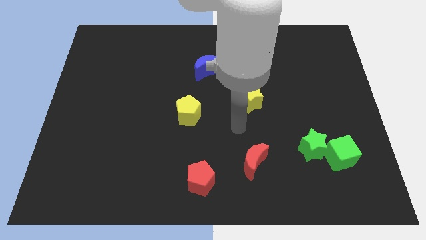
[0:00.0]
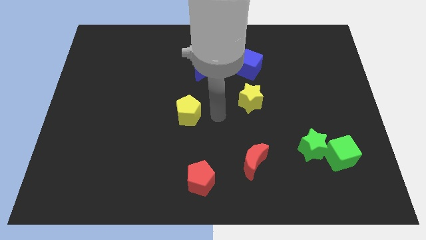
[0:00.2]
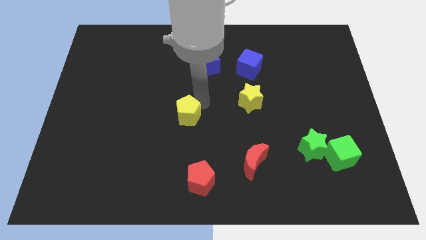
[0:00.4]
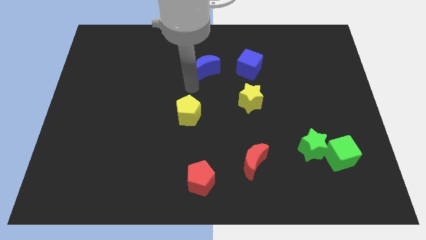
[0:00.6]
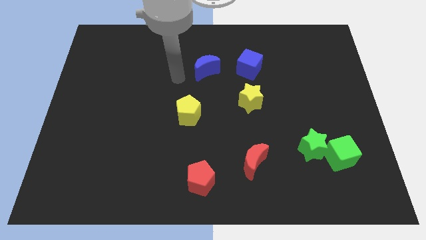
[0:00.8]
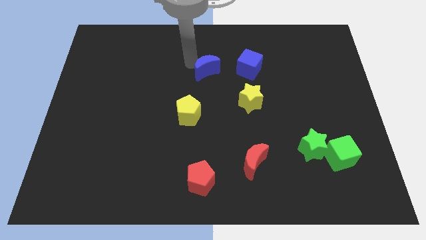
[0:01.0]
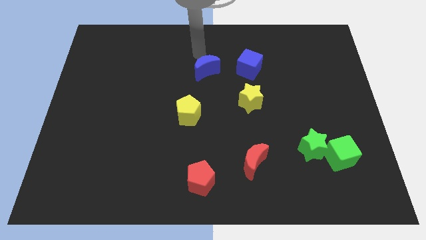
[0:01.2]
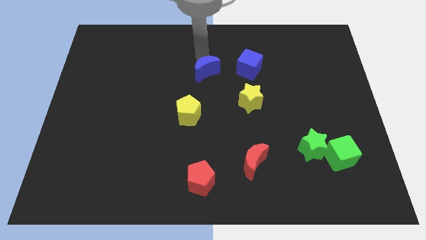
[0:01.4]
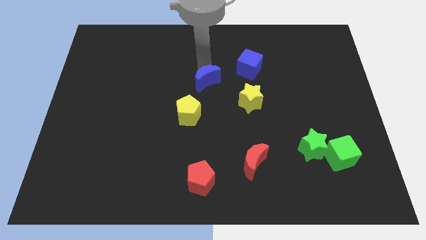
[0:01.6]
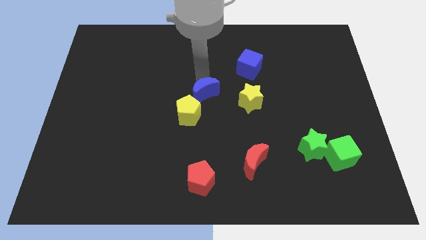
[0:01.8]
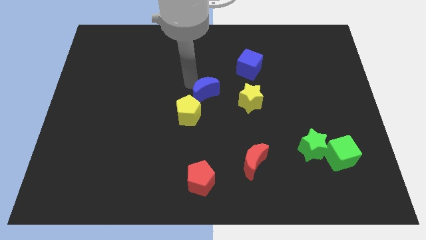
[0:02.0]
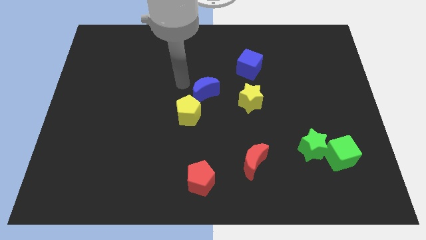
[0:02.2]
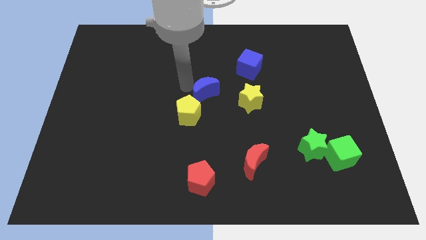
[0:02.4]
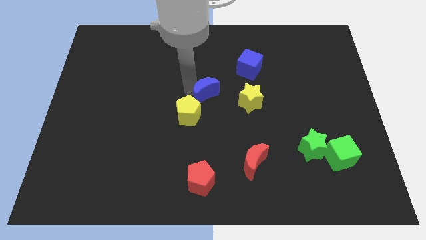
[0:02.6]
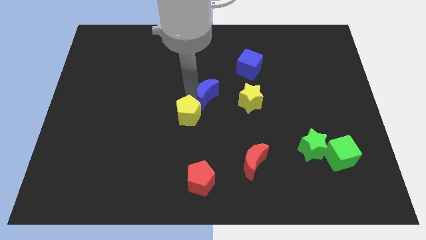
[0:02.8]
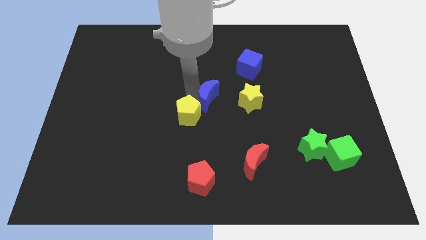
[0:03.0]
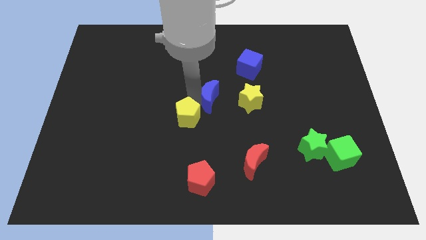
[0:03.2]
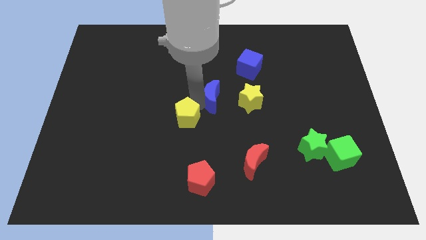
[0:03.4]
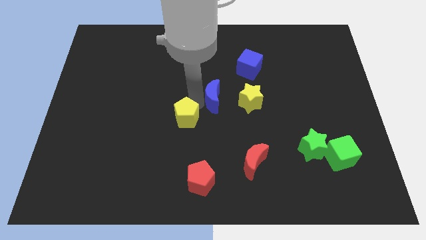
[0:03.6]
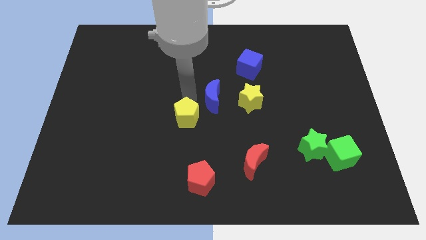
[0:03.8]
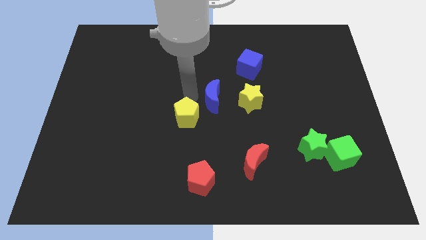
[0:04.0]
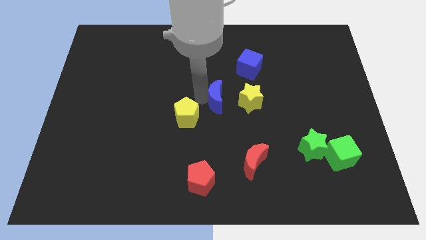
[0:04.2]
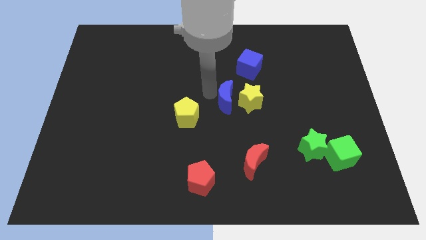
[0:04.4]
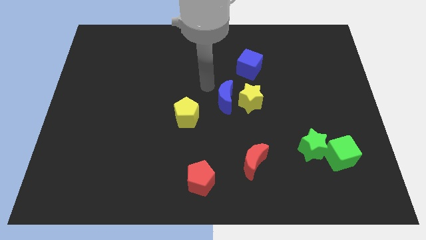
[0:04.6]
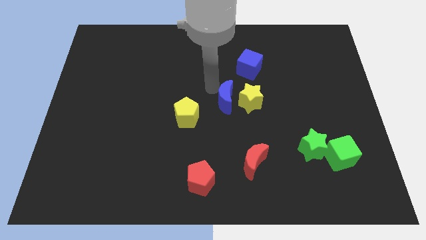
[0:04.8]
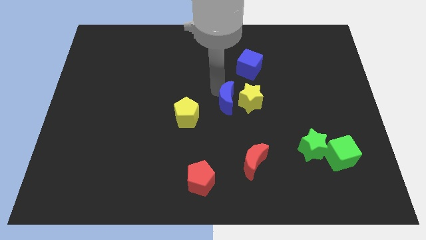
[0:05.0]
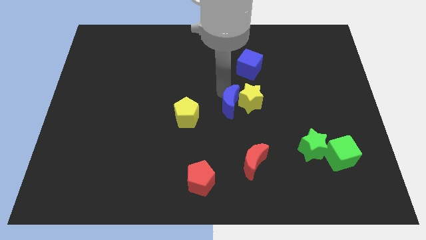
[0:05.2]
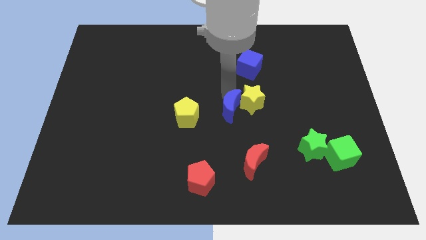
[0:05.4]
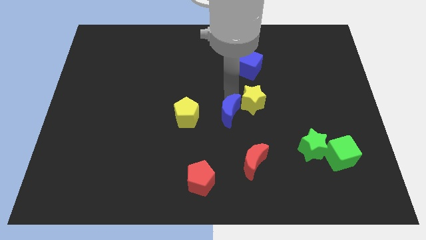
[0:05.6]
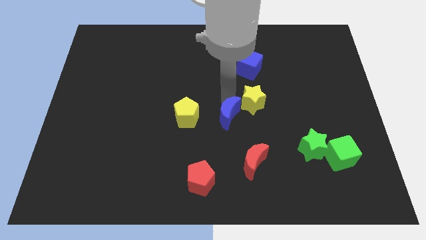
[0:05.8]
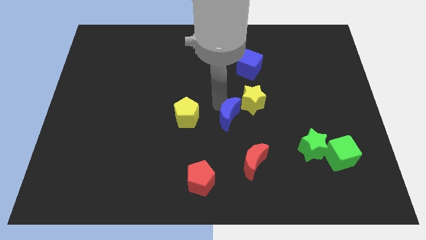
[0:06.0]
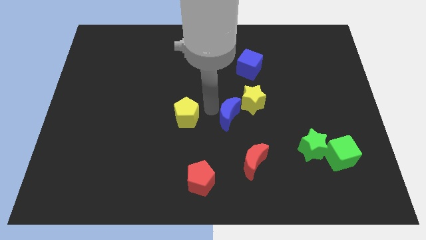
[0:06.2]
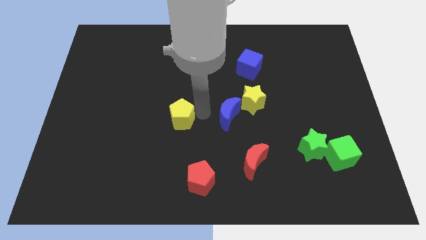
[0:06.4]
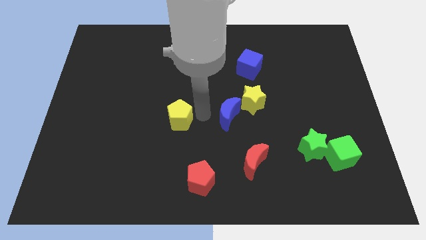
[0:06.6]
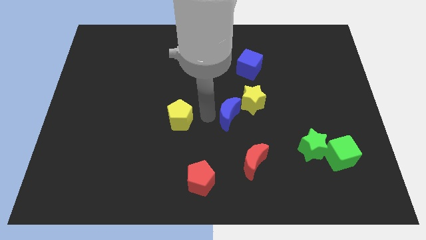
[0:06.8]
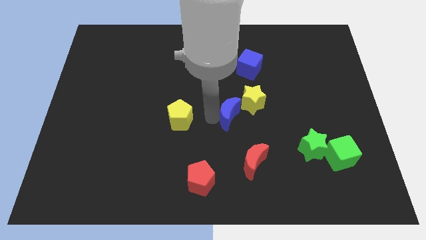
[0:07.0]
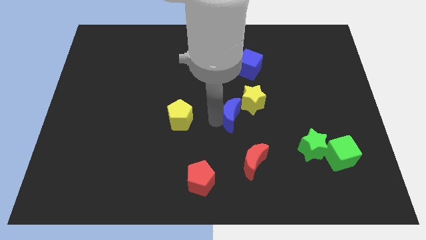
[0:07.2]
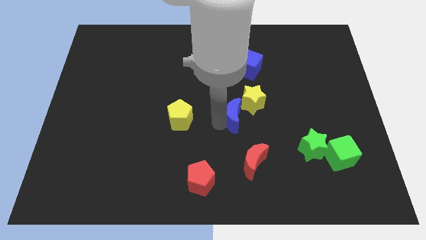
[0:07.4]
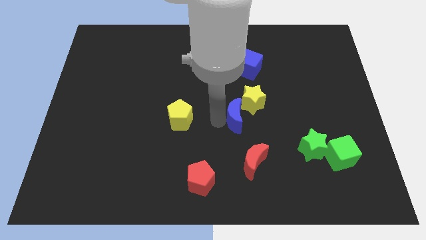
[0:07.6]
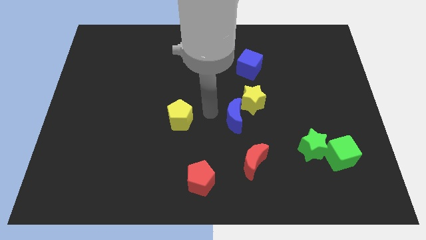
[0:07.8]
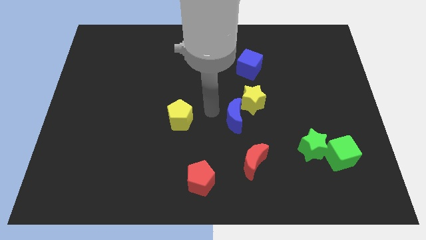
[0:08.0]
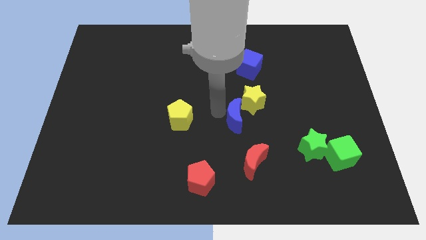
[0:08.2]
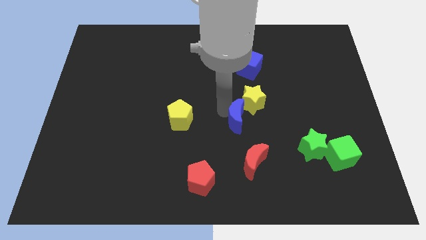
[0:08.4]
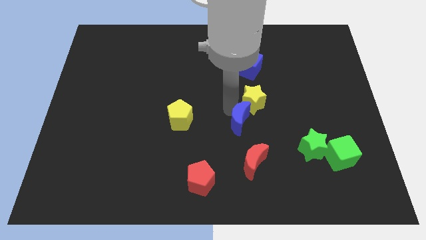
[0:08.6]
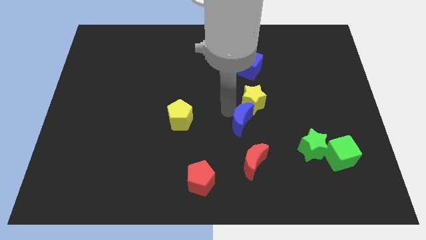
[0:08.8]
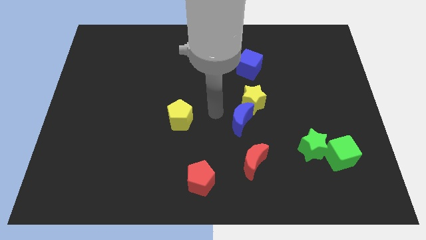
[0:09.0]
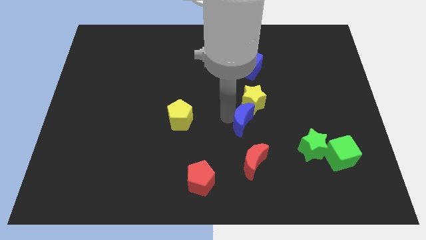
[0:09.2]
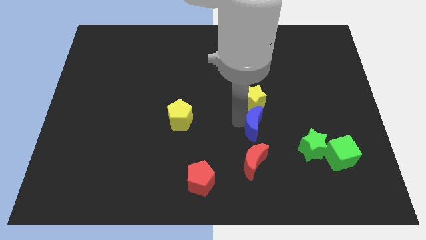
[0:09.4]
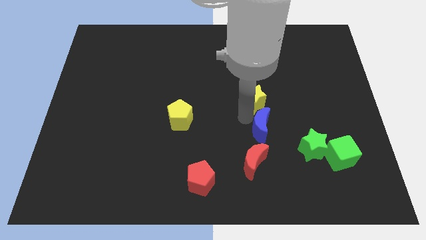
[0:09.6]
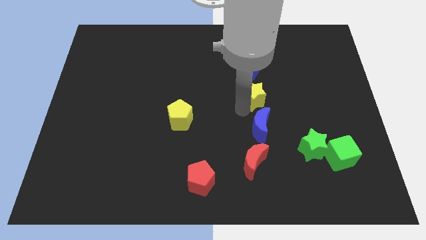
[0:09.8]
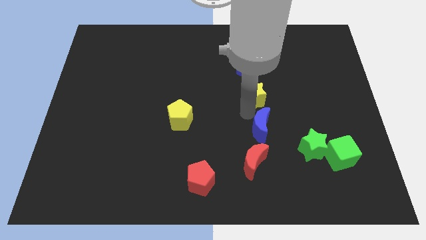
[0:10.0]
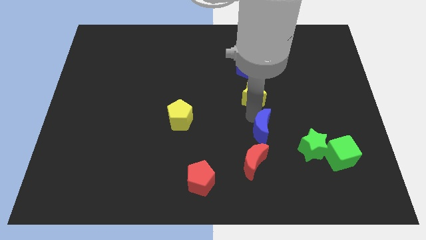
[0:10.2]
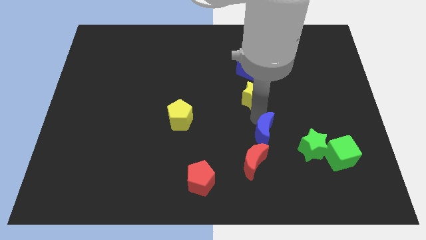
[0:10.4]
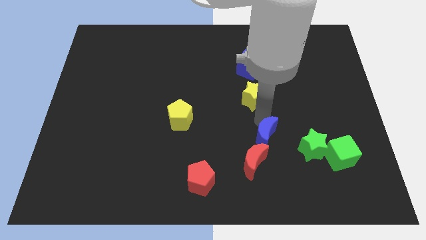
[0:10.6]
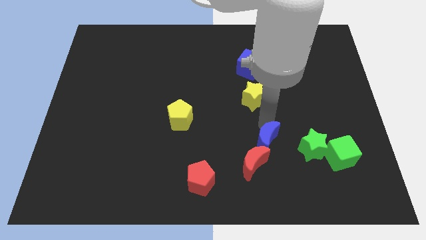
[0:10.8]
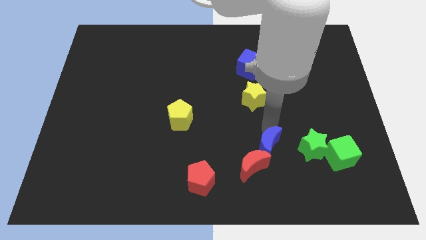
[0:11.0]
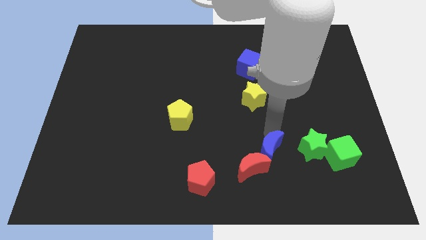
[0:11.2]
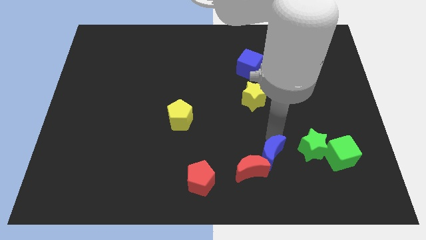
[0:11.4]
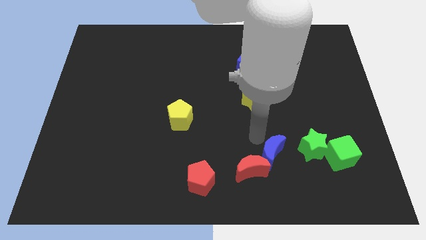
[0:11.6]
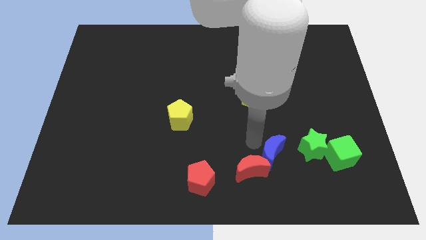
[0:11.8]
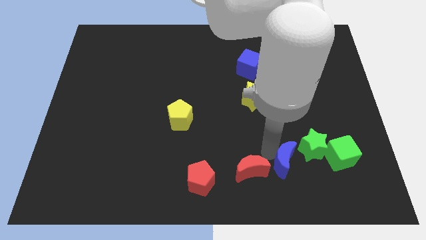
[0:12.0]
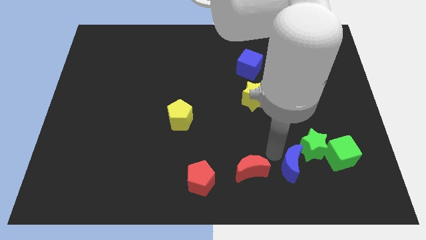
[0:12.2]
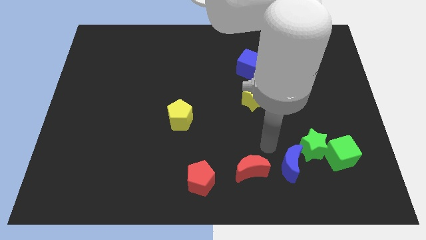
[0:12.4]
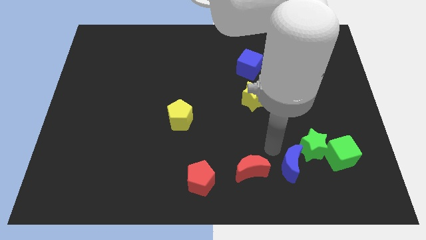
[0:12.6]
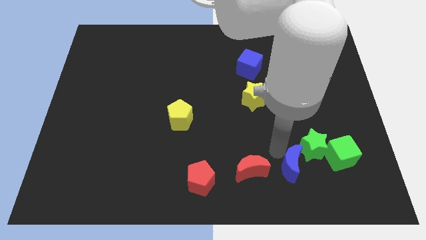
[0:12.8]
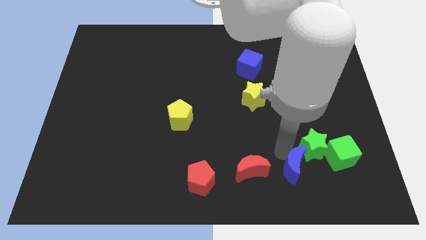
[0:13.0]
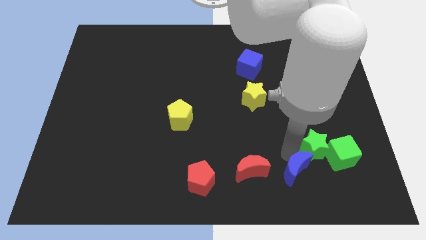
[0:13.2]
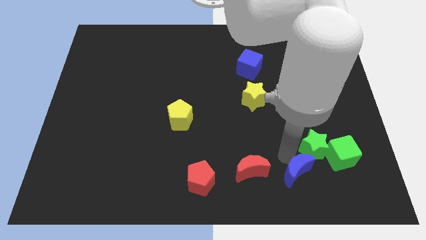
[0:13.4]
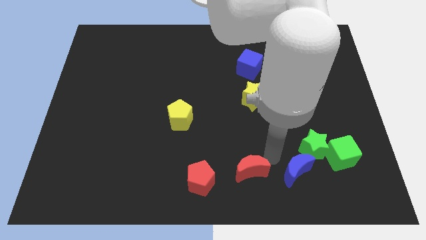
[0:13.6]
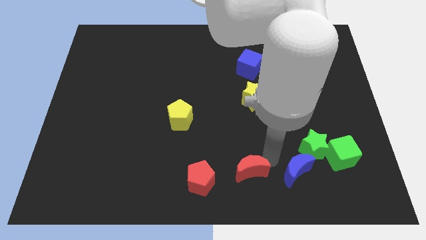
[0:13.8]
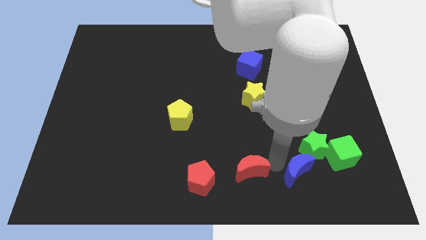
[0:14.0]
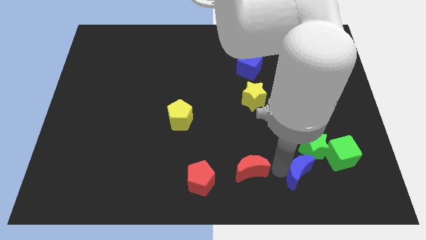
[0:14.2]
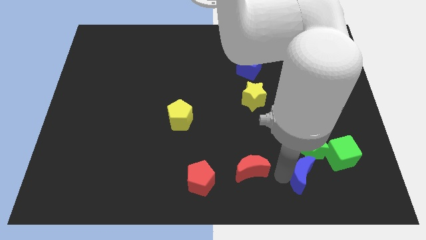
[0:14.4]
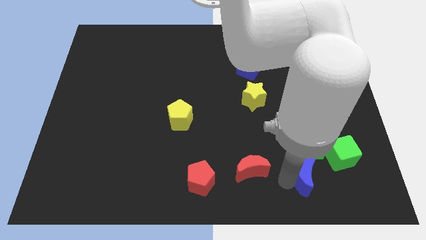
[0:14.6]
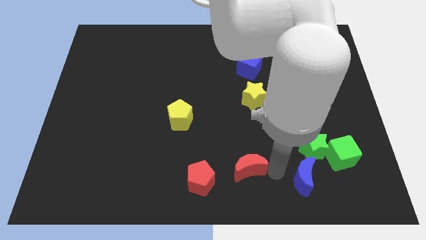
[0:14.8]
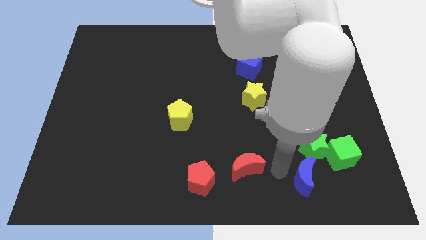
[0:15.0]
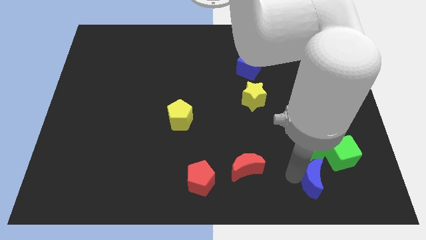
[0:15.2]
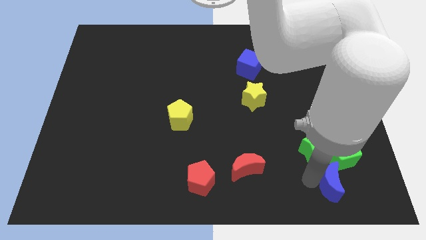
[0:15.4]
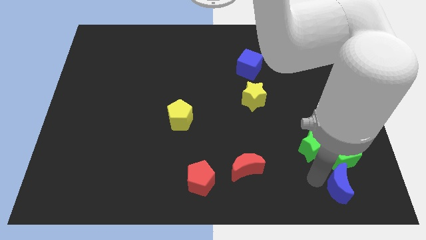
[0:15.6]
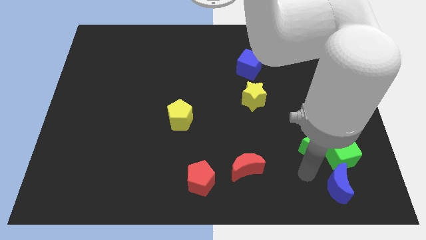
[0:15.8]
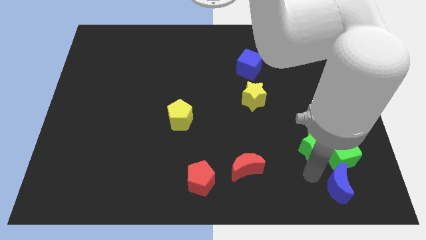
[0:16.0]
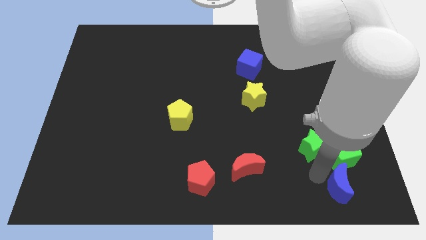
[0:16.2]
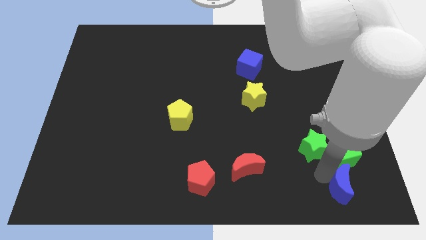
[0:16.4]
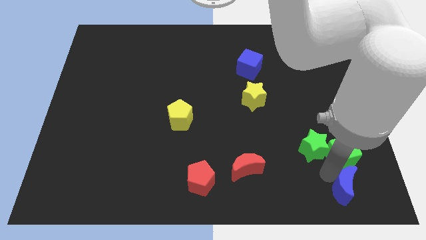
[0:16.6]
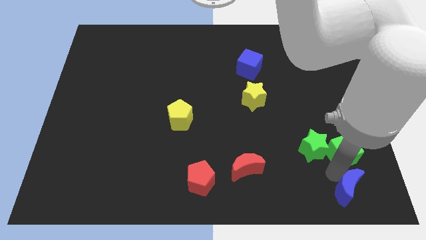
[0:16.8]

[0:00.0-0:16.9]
push the blue moon to the bottom right of the board
